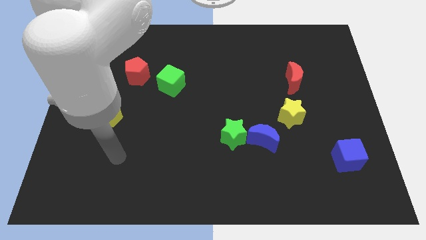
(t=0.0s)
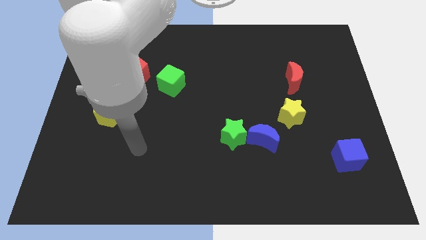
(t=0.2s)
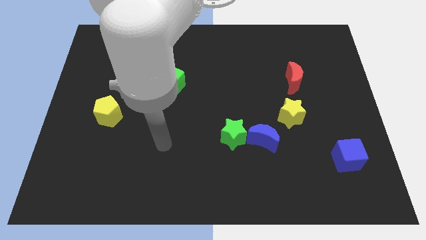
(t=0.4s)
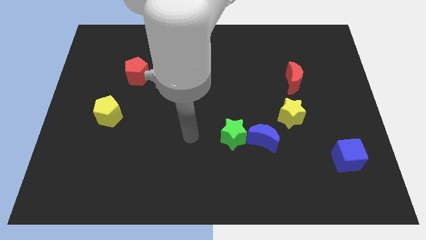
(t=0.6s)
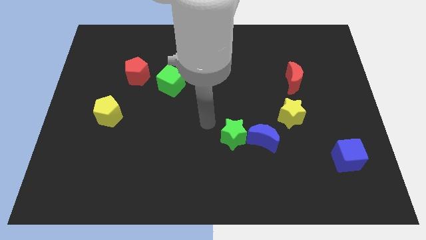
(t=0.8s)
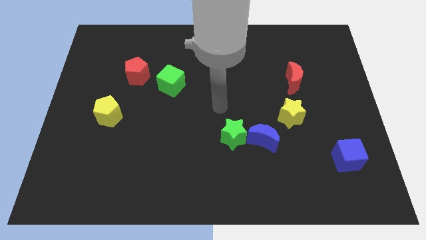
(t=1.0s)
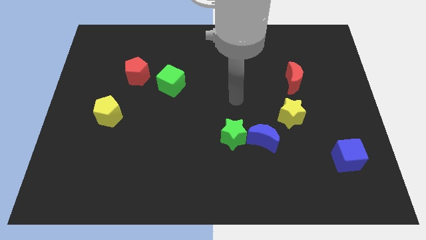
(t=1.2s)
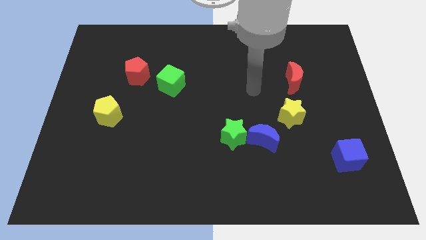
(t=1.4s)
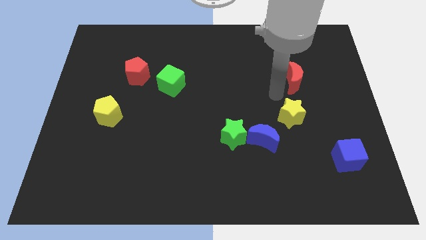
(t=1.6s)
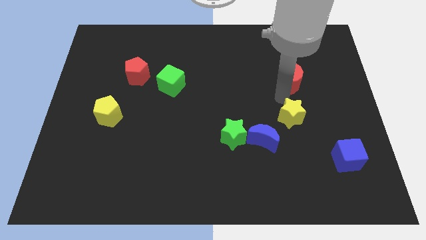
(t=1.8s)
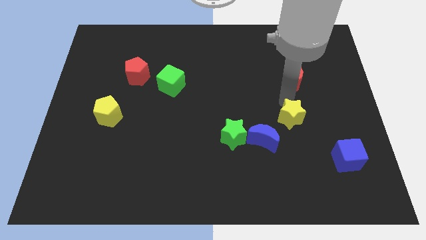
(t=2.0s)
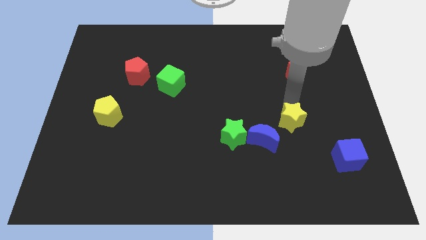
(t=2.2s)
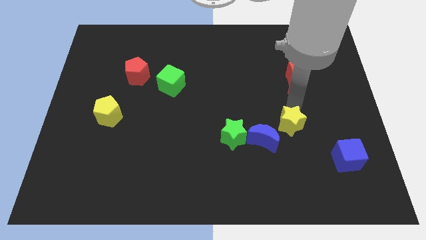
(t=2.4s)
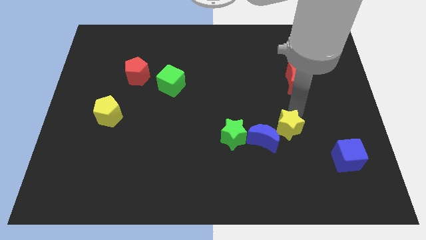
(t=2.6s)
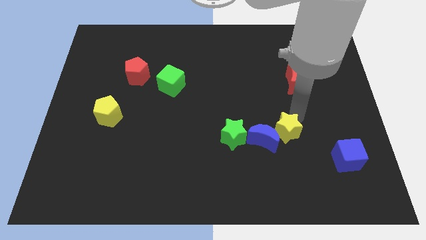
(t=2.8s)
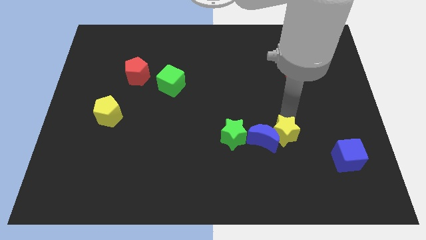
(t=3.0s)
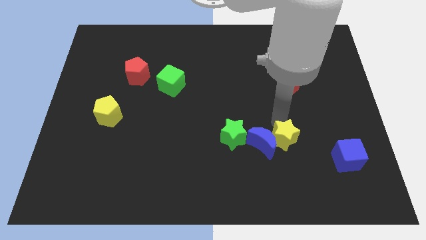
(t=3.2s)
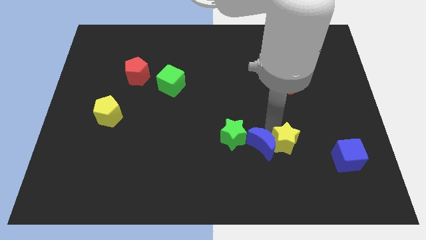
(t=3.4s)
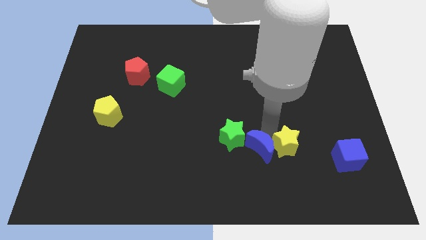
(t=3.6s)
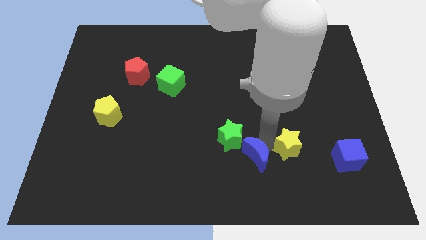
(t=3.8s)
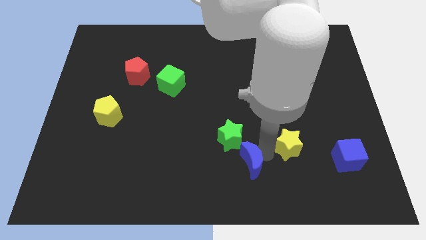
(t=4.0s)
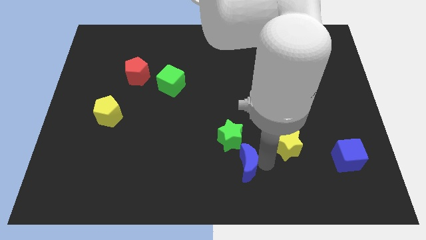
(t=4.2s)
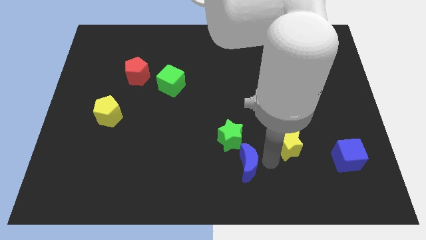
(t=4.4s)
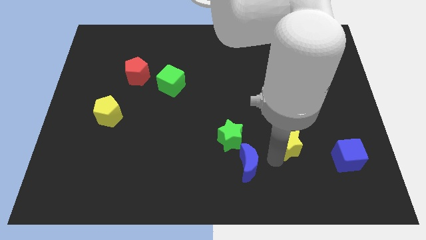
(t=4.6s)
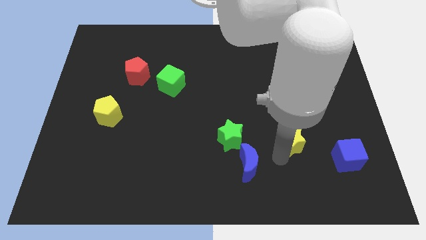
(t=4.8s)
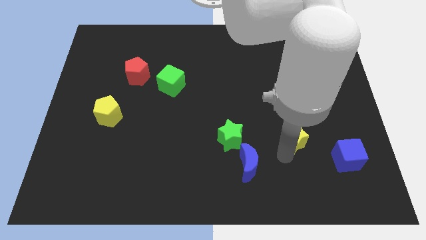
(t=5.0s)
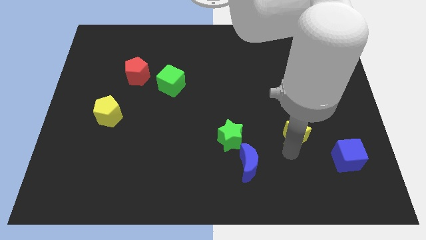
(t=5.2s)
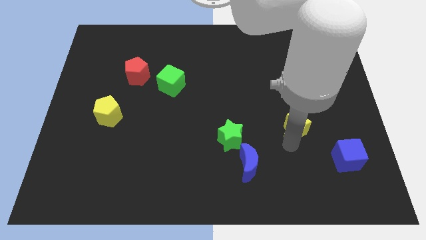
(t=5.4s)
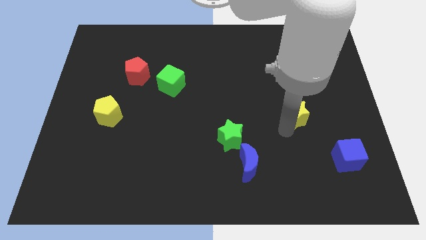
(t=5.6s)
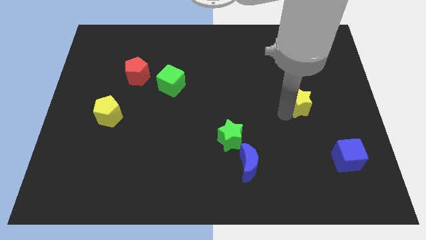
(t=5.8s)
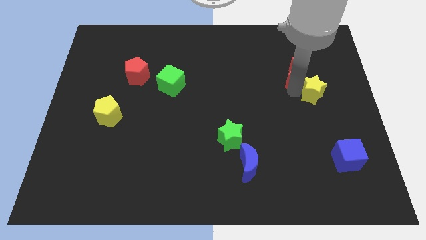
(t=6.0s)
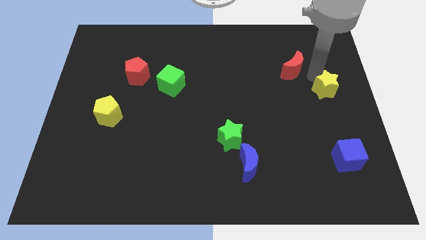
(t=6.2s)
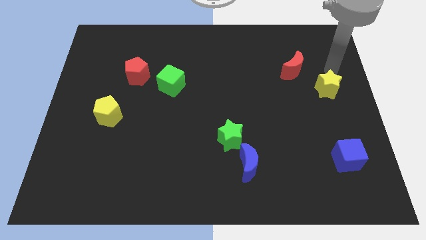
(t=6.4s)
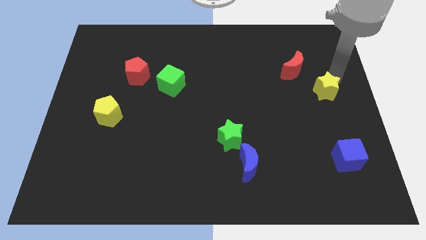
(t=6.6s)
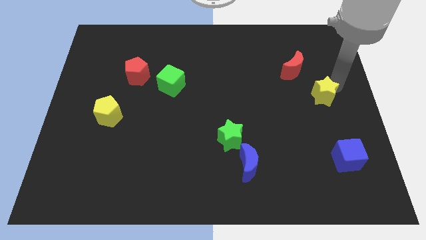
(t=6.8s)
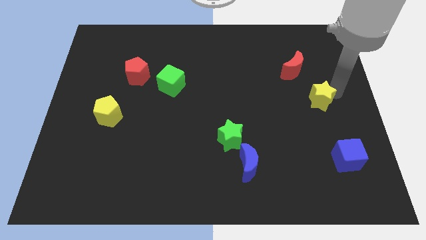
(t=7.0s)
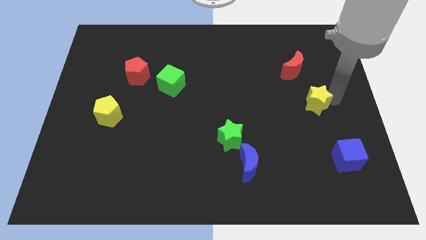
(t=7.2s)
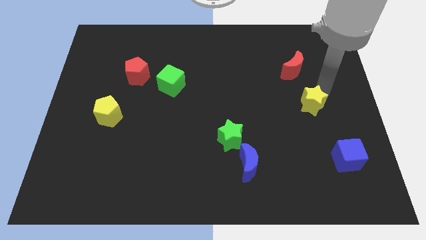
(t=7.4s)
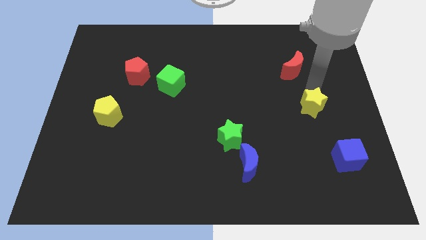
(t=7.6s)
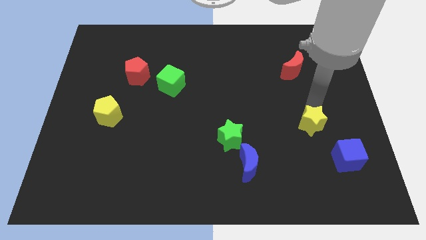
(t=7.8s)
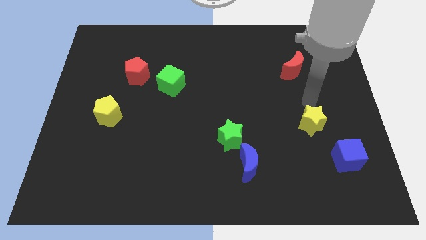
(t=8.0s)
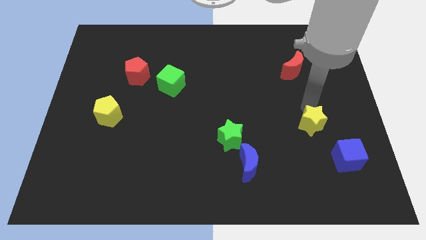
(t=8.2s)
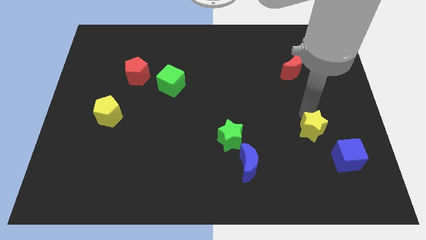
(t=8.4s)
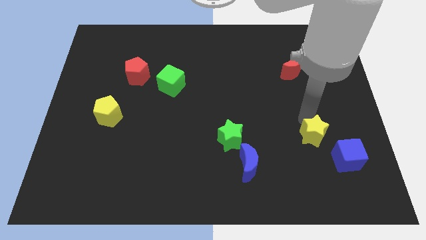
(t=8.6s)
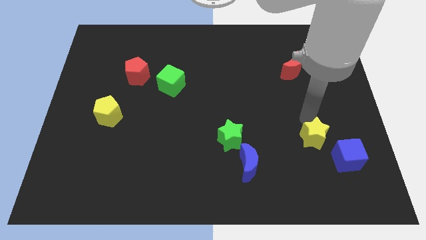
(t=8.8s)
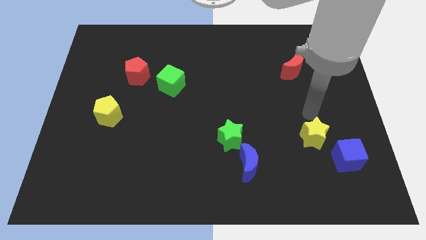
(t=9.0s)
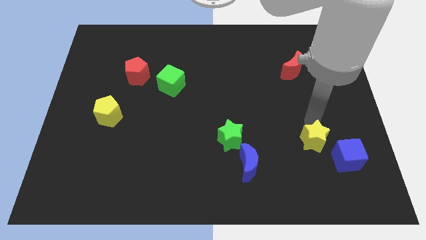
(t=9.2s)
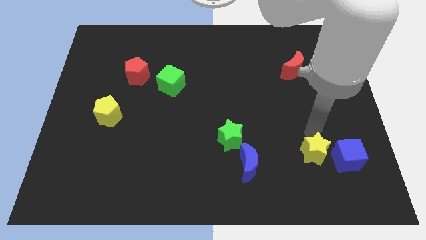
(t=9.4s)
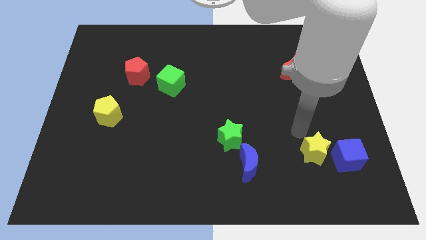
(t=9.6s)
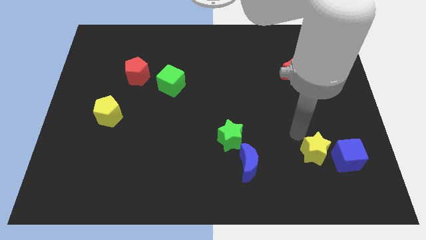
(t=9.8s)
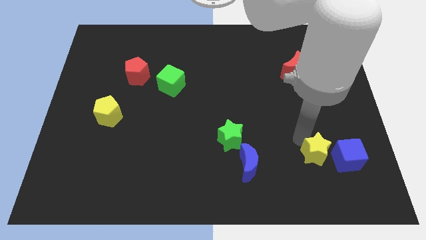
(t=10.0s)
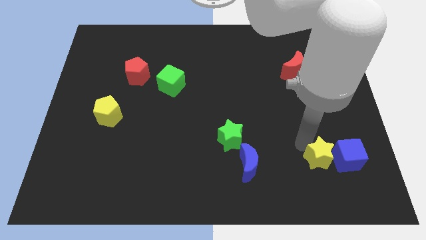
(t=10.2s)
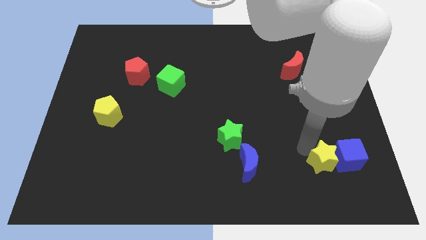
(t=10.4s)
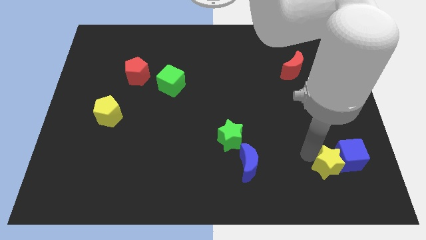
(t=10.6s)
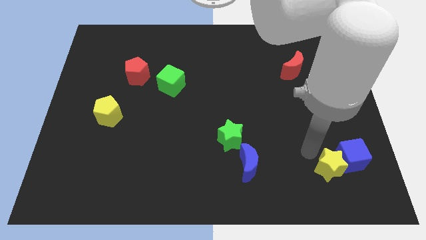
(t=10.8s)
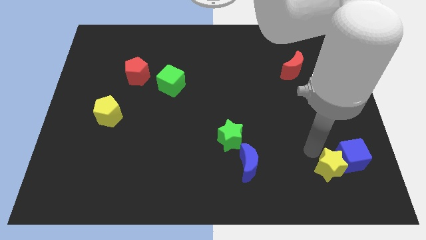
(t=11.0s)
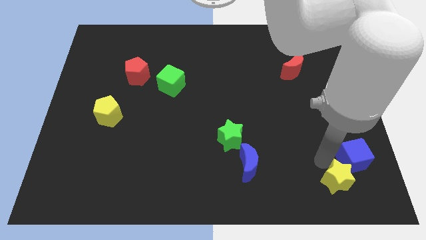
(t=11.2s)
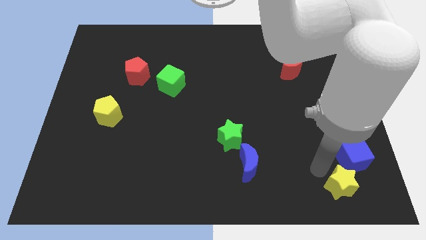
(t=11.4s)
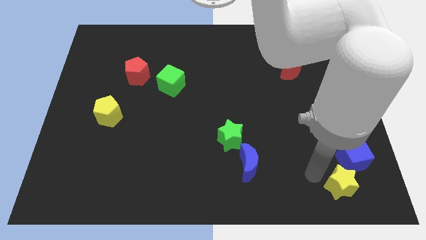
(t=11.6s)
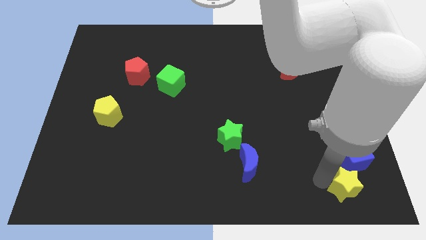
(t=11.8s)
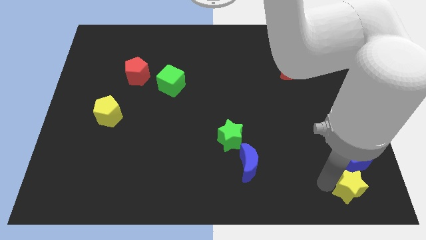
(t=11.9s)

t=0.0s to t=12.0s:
move the yellow star to the bottom right corner
